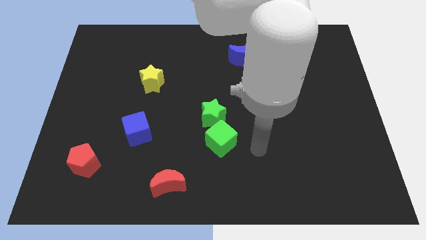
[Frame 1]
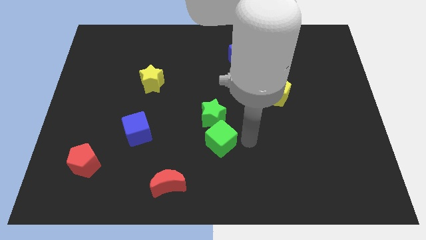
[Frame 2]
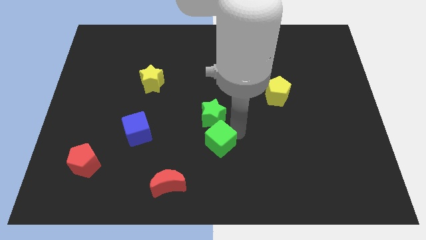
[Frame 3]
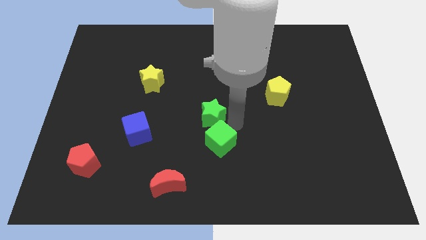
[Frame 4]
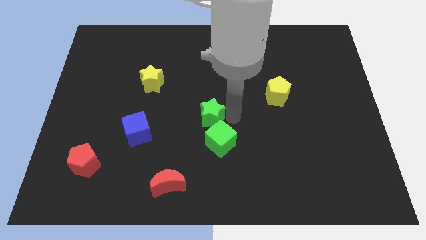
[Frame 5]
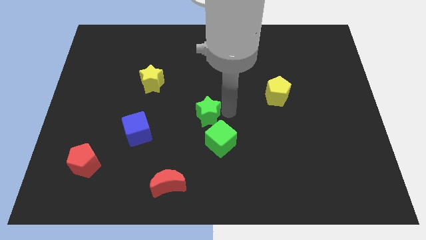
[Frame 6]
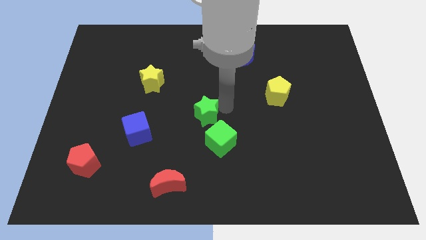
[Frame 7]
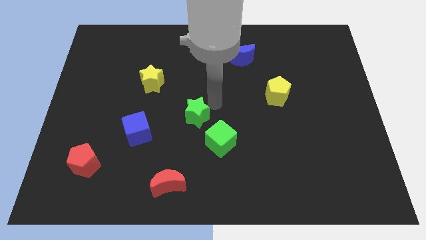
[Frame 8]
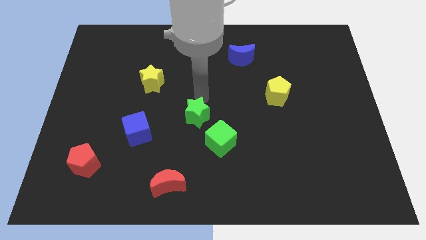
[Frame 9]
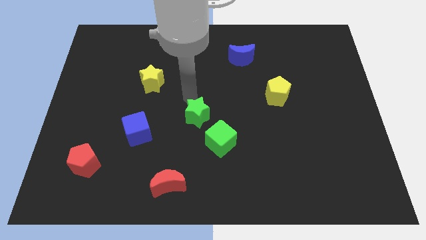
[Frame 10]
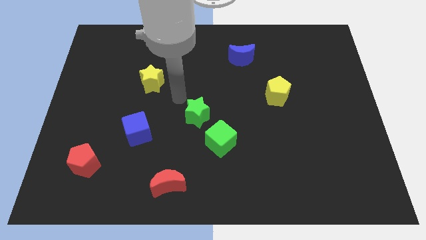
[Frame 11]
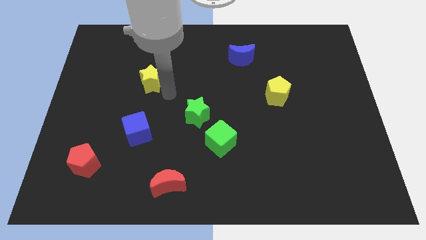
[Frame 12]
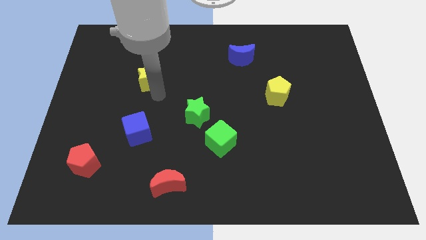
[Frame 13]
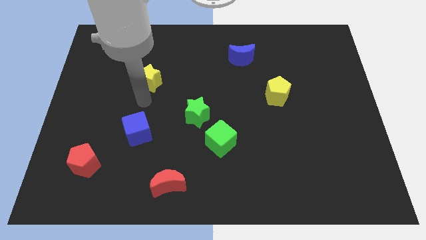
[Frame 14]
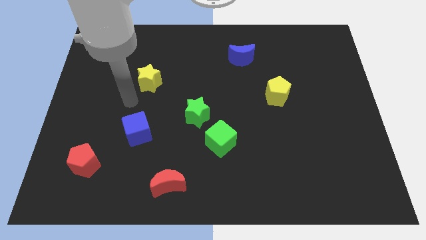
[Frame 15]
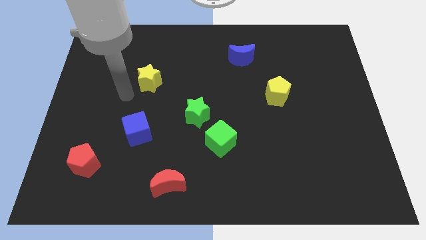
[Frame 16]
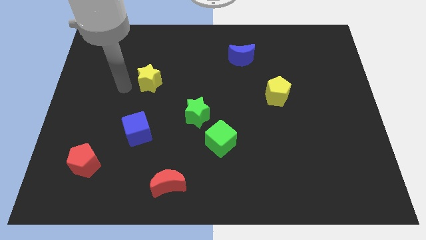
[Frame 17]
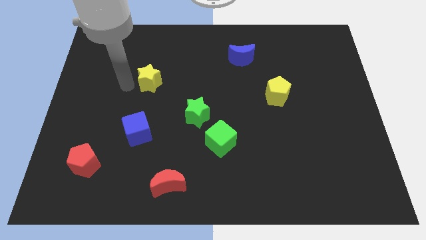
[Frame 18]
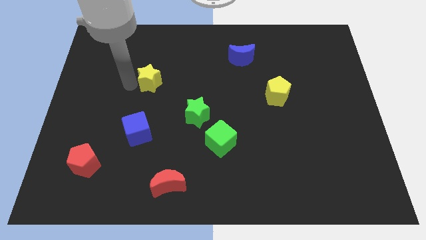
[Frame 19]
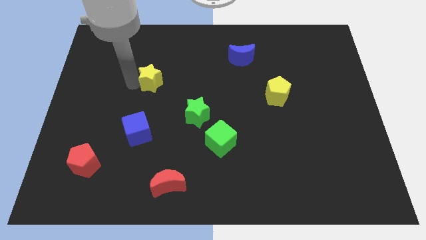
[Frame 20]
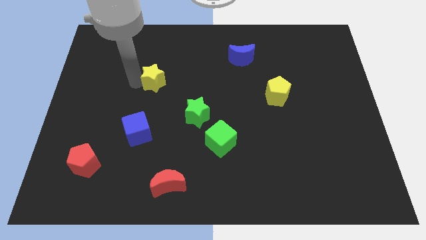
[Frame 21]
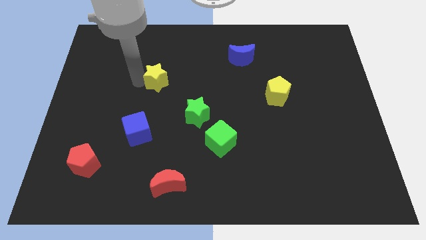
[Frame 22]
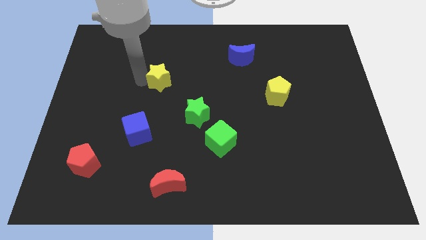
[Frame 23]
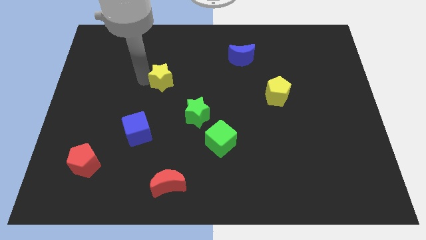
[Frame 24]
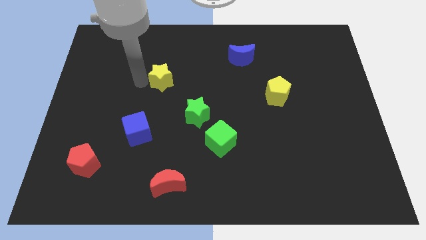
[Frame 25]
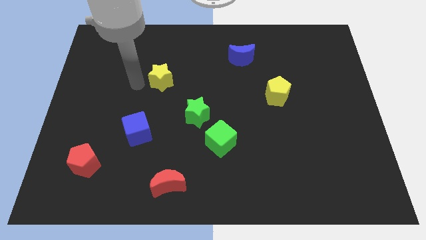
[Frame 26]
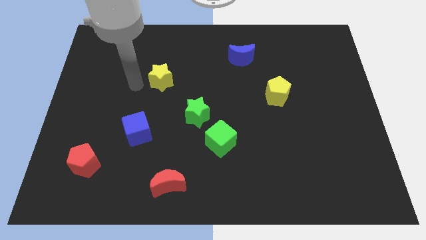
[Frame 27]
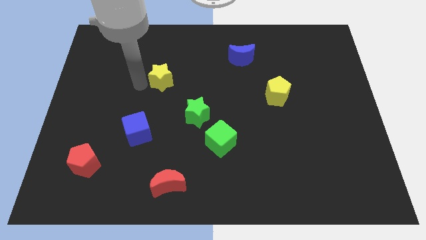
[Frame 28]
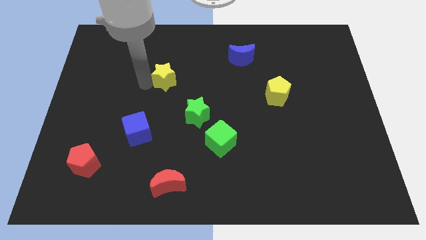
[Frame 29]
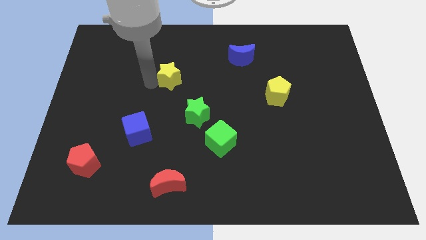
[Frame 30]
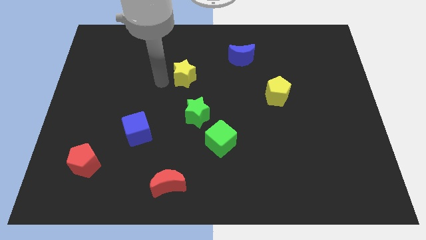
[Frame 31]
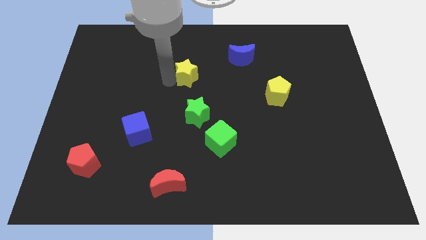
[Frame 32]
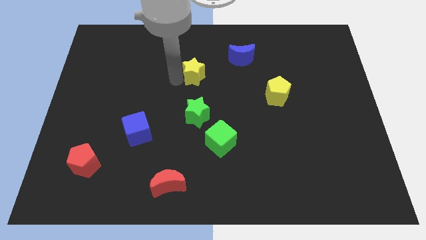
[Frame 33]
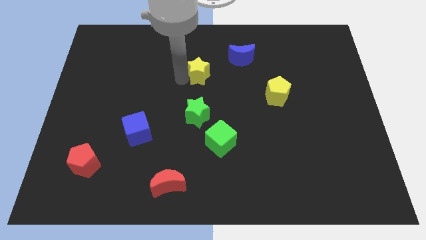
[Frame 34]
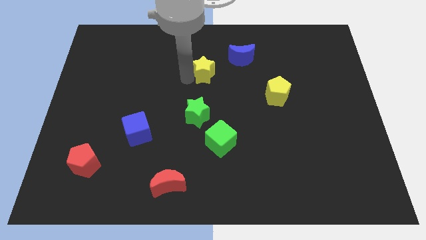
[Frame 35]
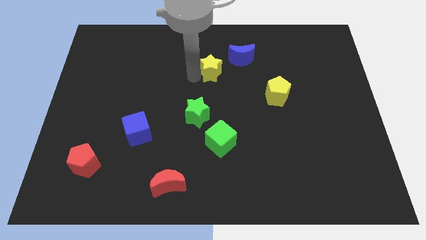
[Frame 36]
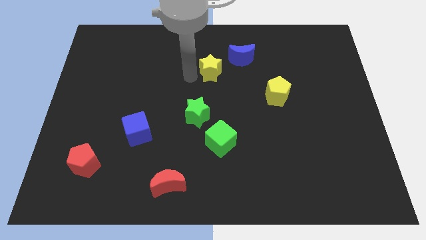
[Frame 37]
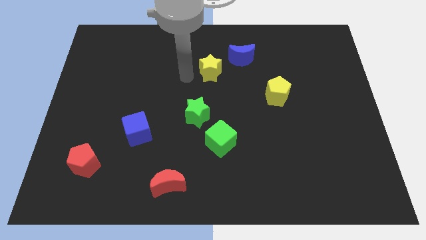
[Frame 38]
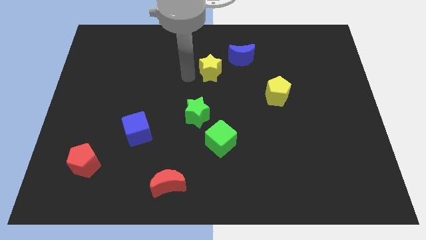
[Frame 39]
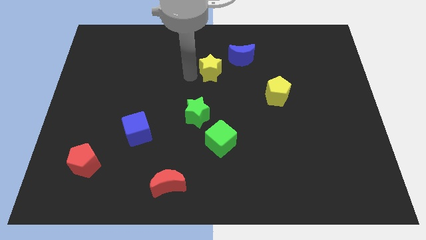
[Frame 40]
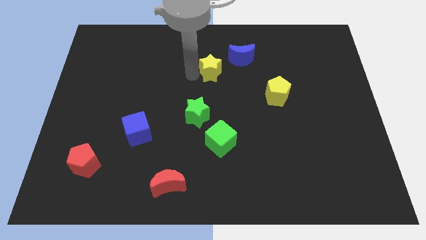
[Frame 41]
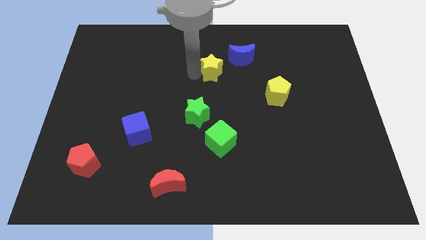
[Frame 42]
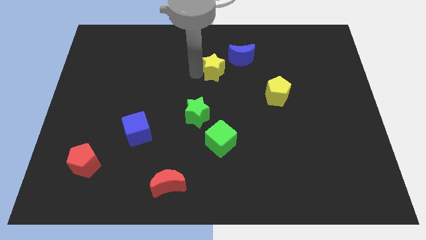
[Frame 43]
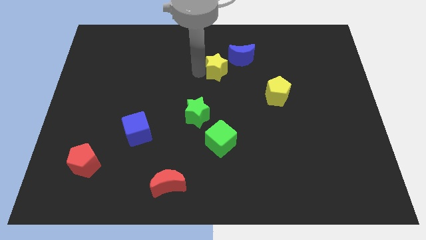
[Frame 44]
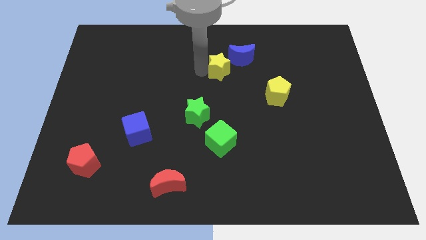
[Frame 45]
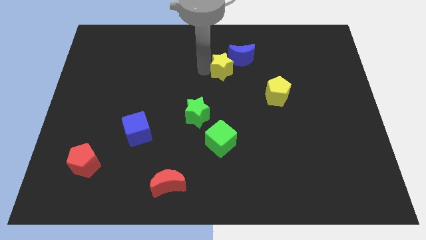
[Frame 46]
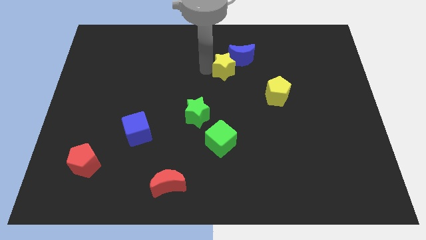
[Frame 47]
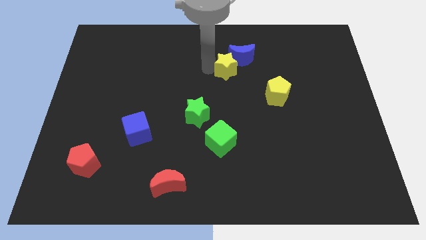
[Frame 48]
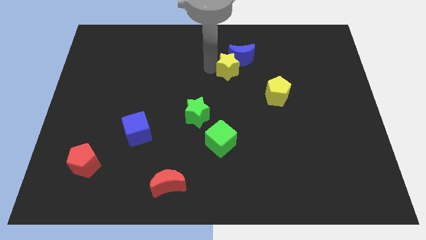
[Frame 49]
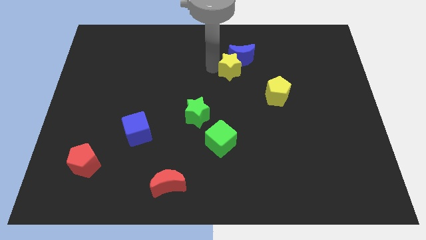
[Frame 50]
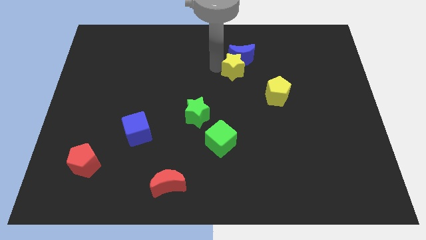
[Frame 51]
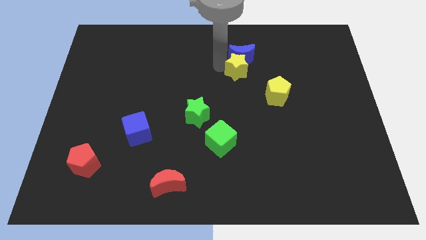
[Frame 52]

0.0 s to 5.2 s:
slide the yellow star right

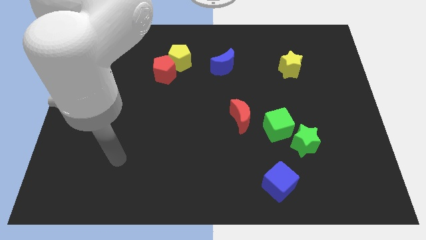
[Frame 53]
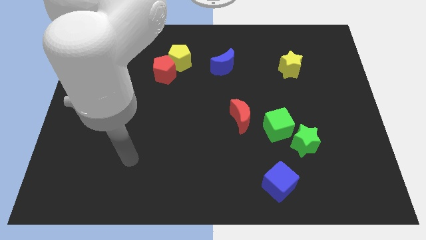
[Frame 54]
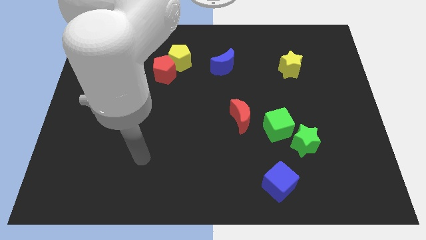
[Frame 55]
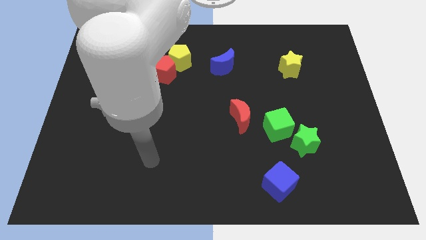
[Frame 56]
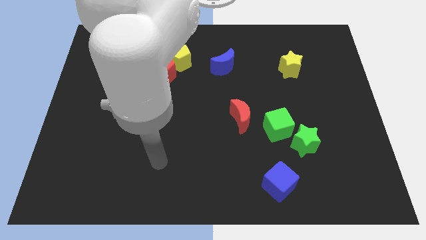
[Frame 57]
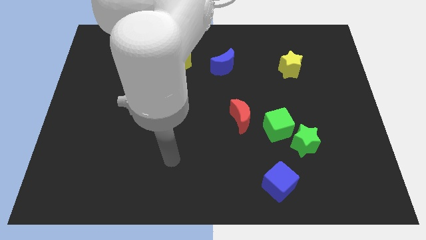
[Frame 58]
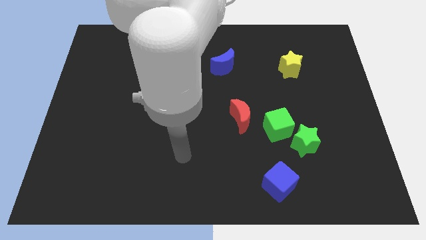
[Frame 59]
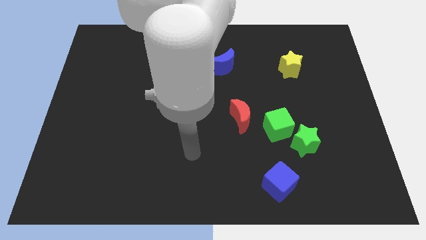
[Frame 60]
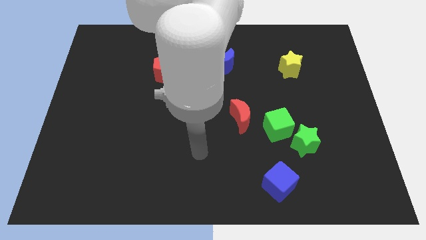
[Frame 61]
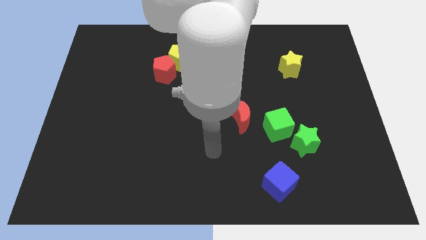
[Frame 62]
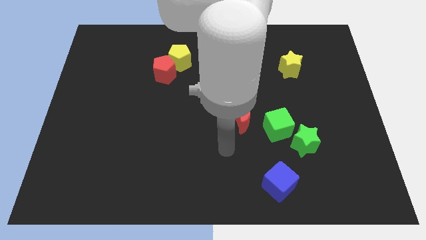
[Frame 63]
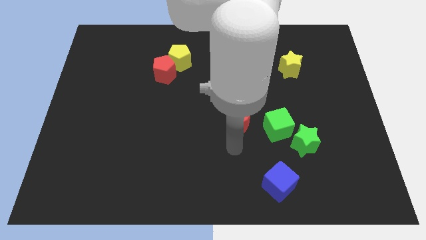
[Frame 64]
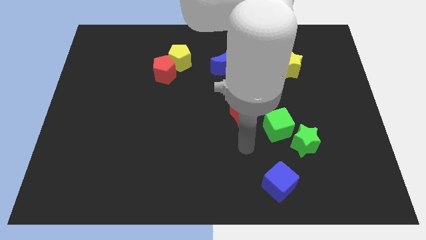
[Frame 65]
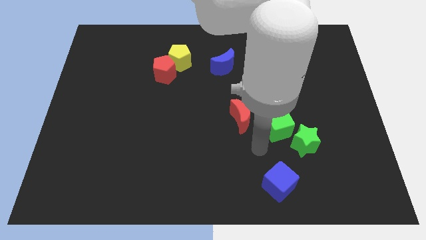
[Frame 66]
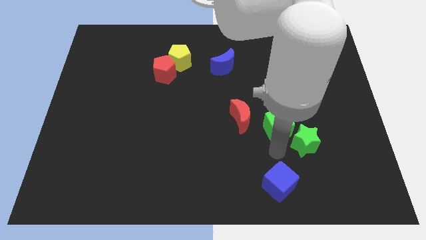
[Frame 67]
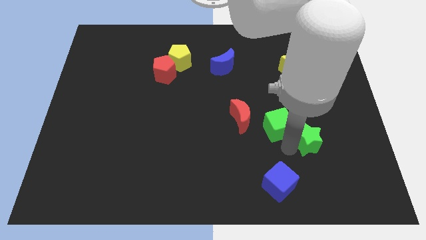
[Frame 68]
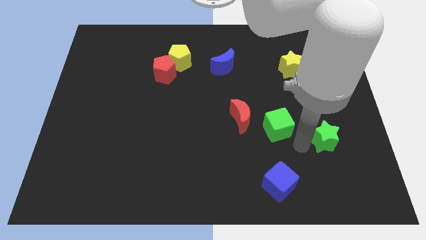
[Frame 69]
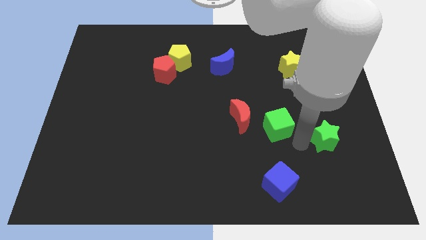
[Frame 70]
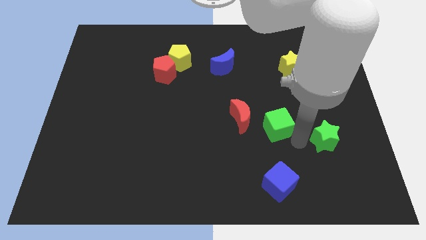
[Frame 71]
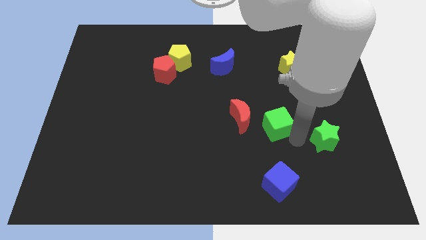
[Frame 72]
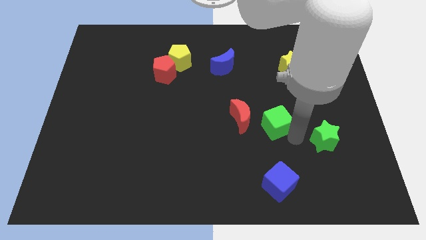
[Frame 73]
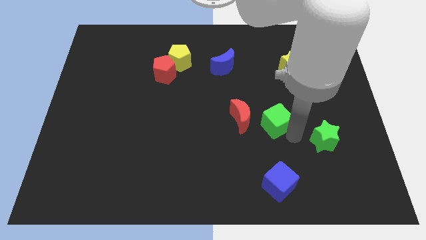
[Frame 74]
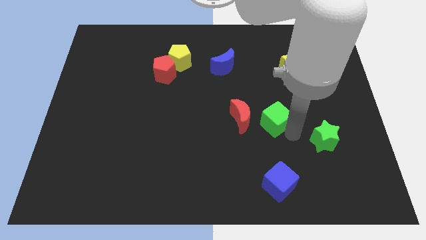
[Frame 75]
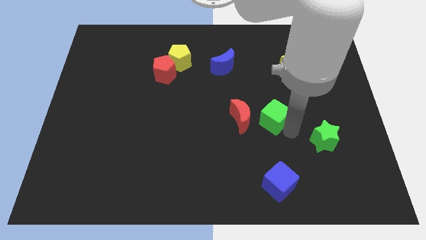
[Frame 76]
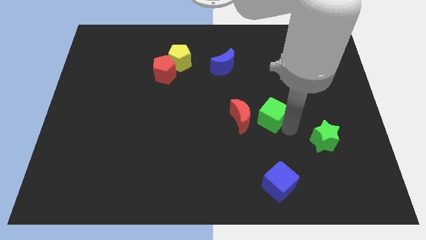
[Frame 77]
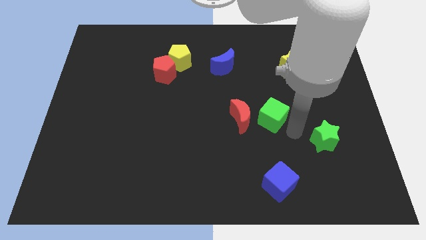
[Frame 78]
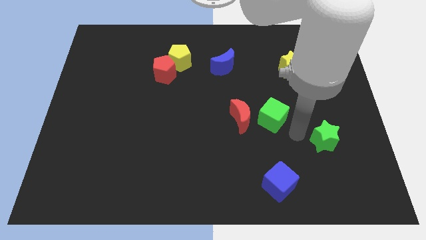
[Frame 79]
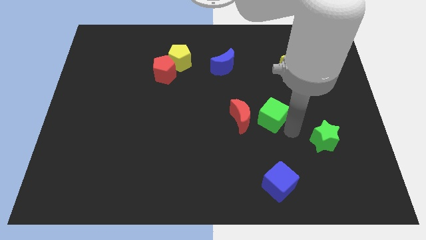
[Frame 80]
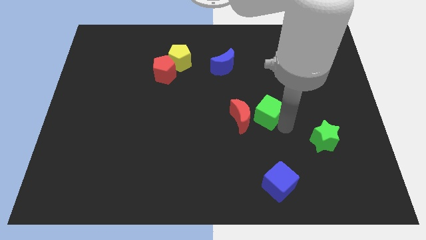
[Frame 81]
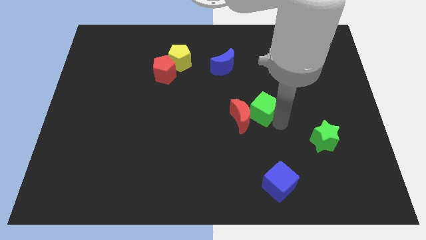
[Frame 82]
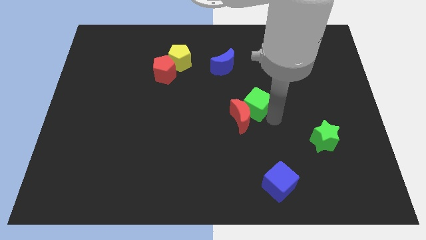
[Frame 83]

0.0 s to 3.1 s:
push the green cube a little upwards and to the left diagonally
